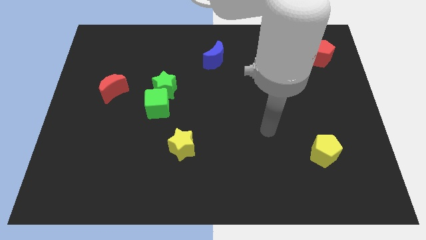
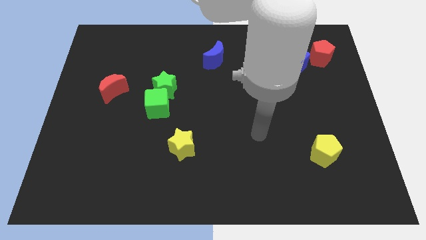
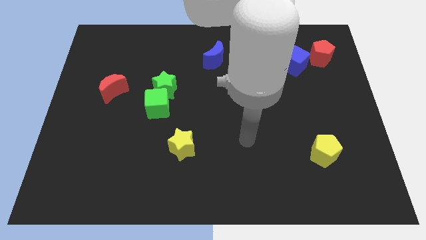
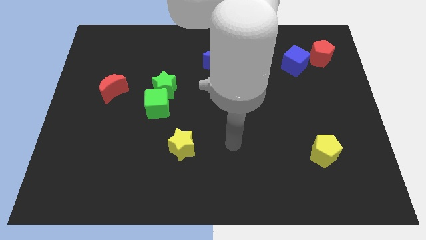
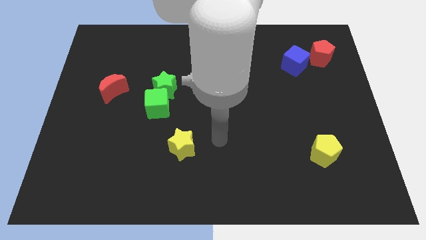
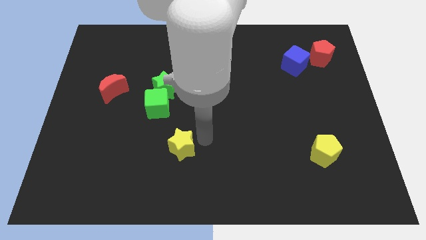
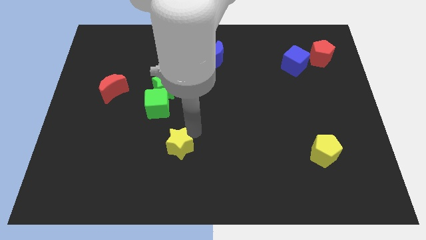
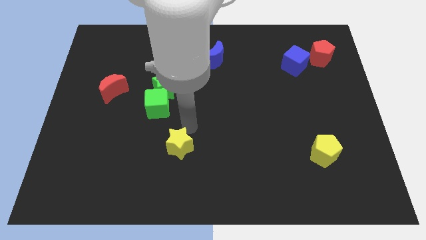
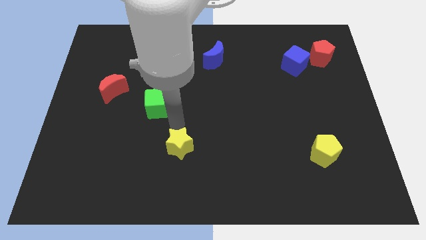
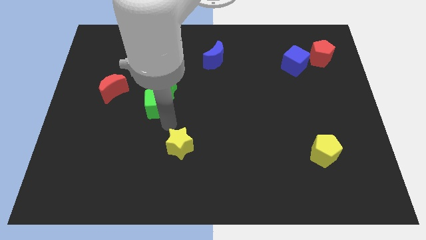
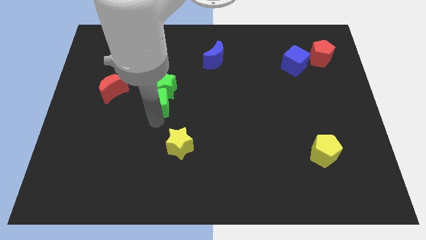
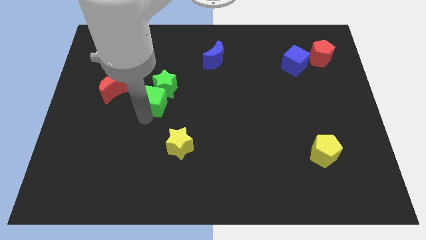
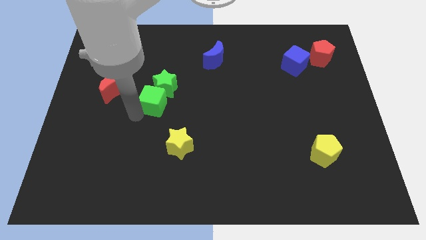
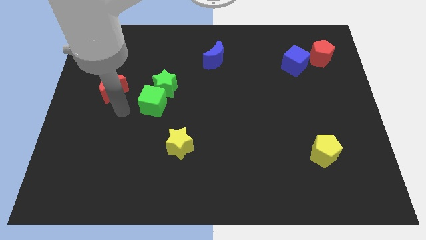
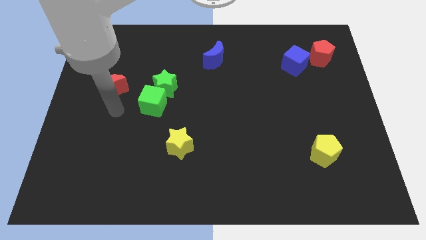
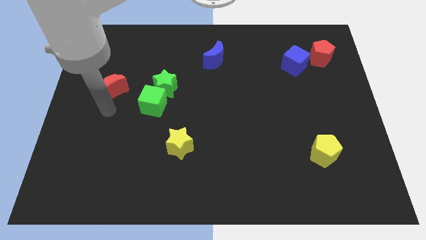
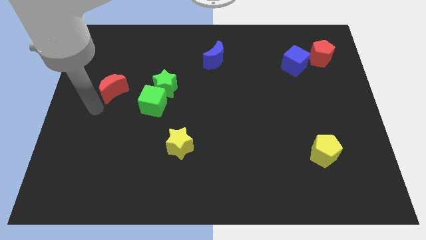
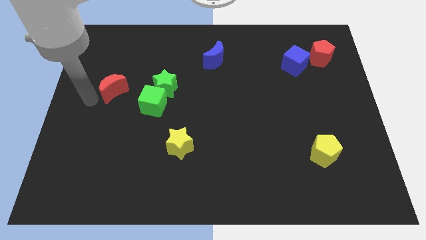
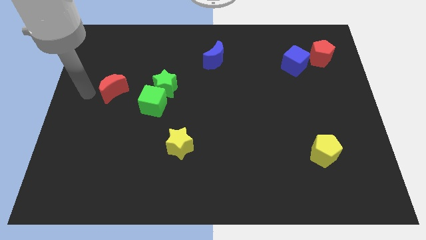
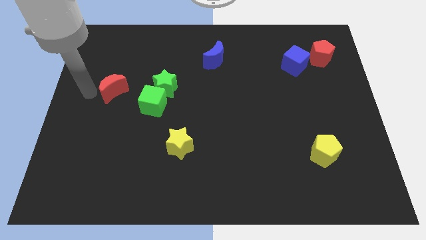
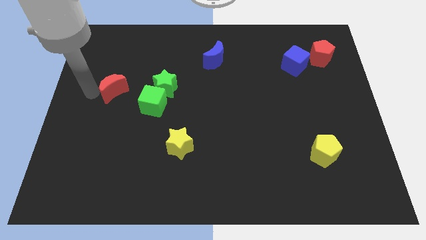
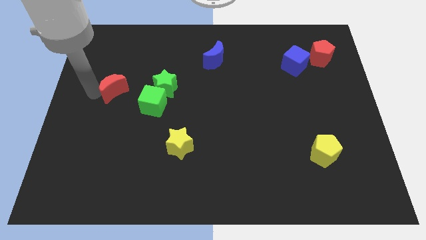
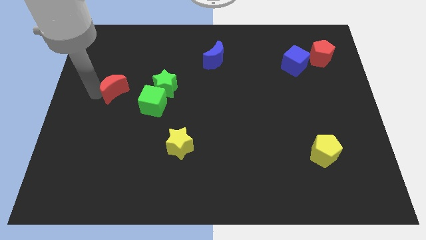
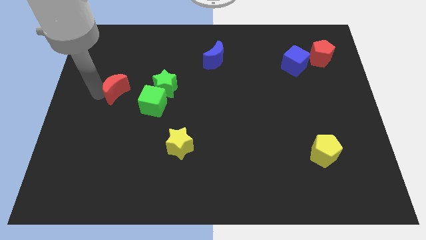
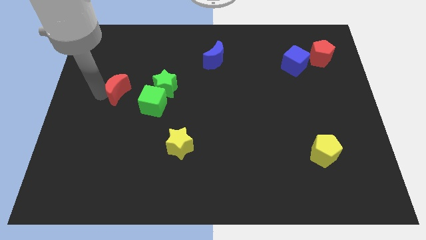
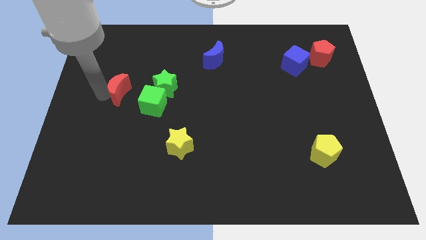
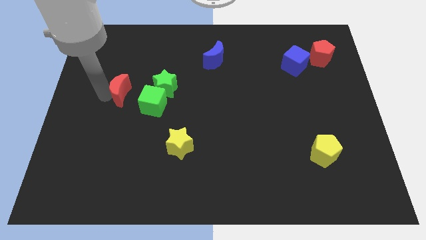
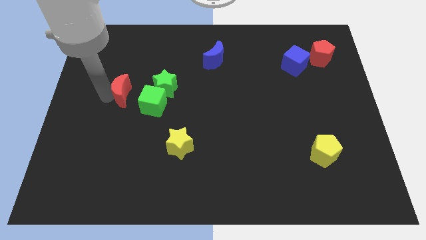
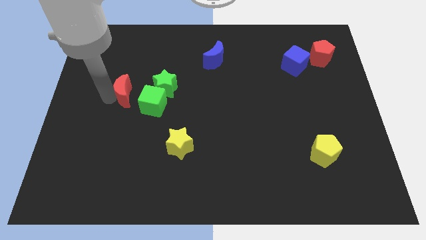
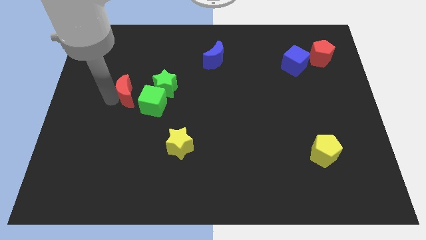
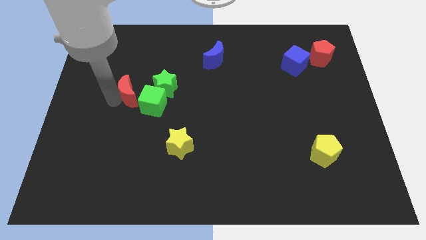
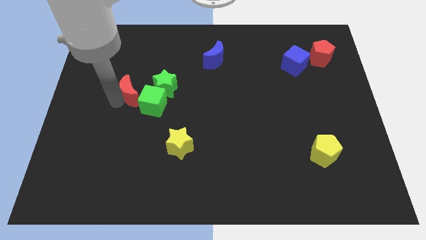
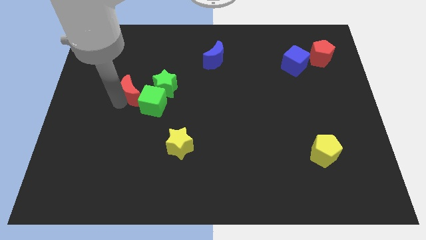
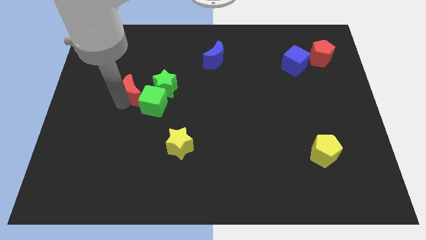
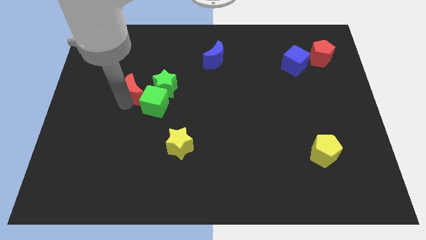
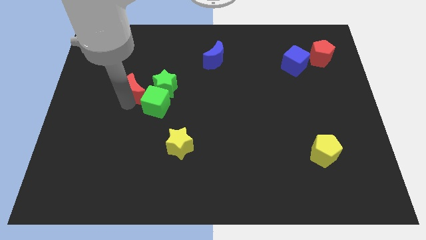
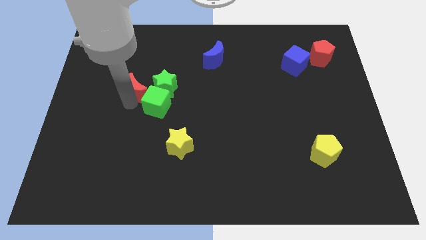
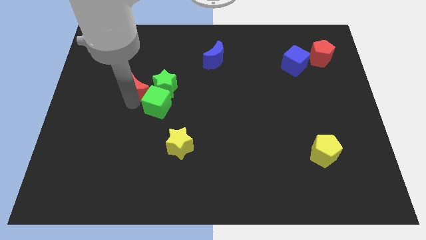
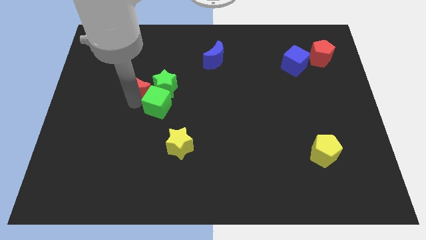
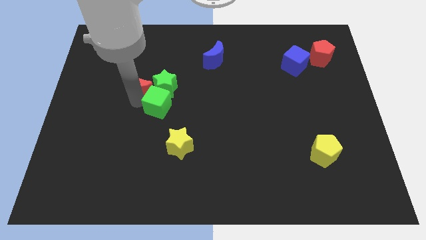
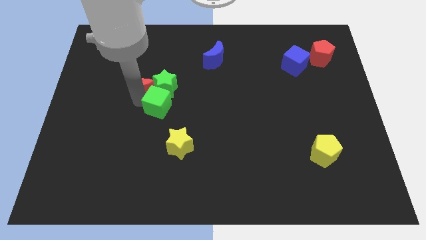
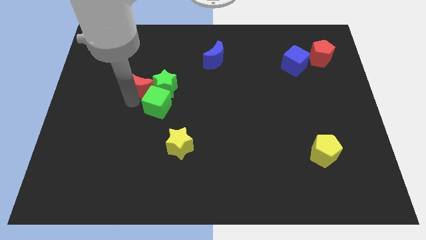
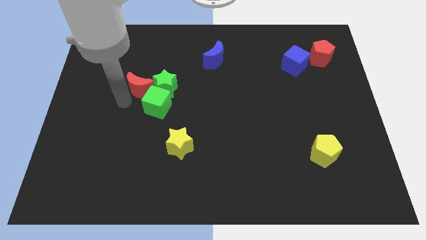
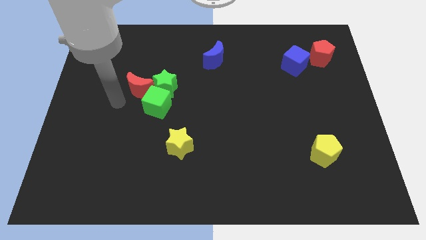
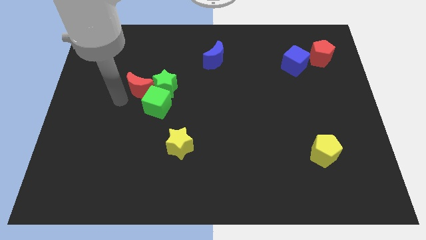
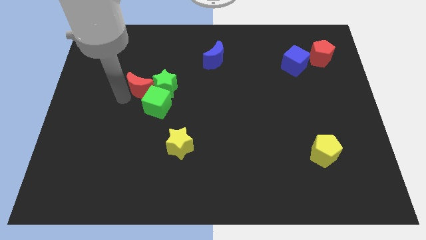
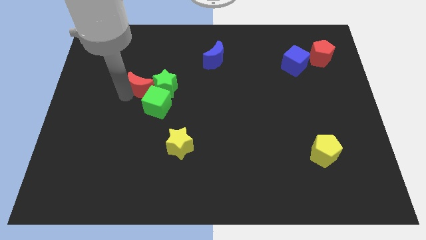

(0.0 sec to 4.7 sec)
push the red moon a little bit to the right

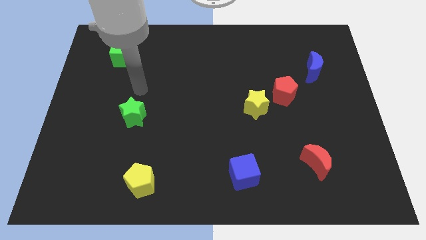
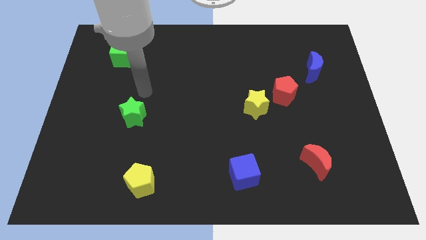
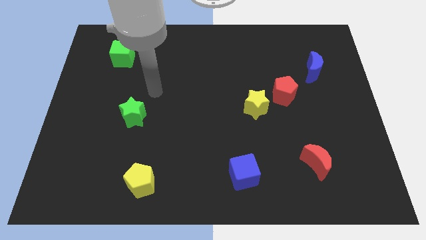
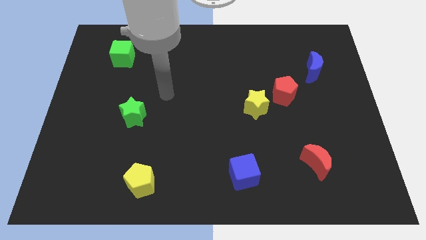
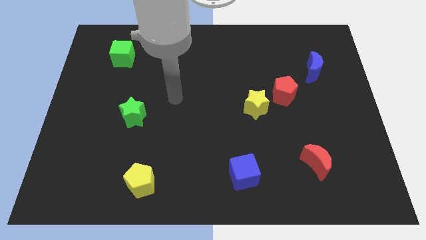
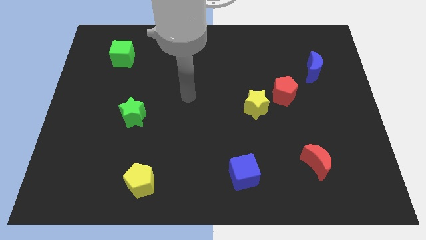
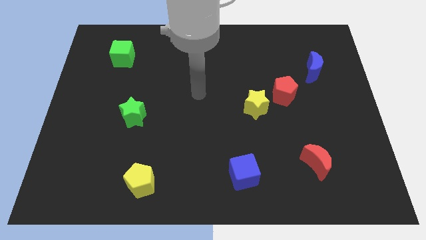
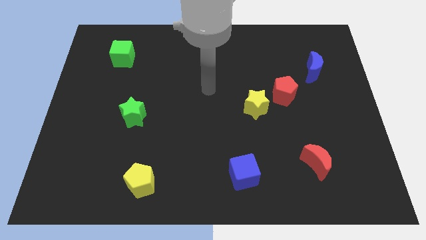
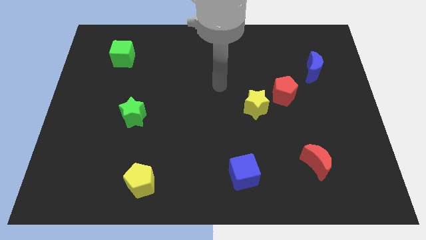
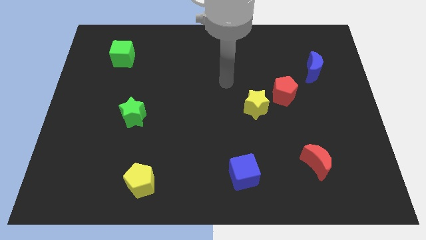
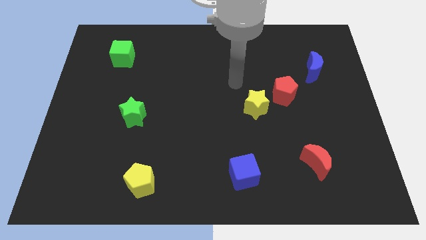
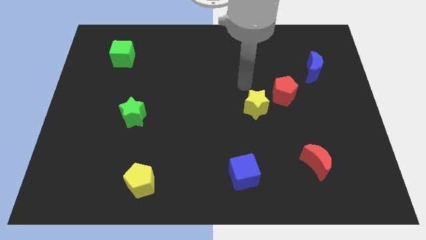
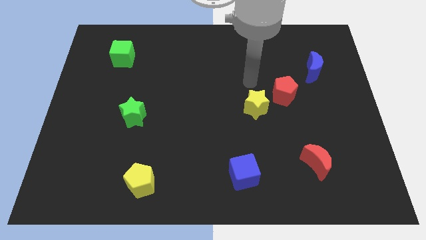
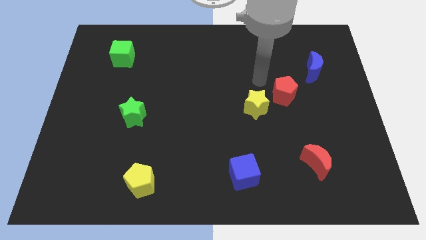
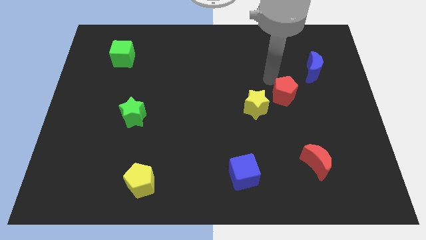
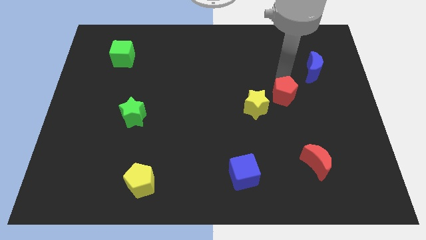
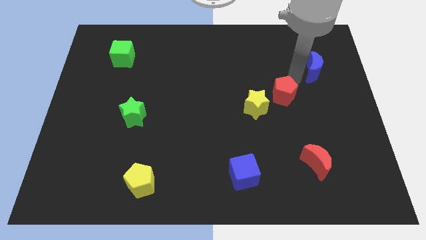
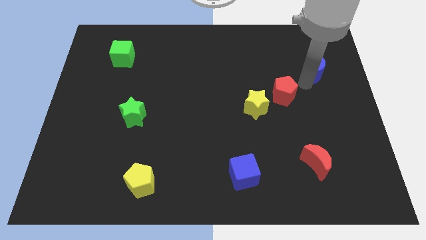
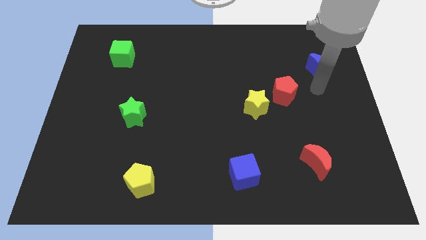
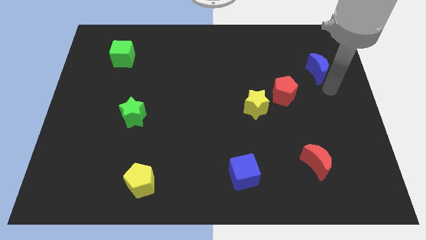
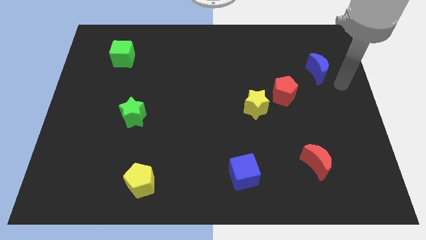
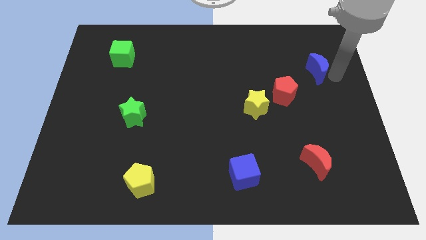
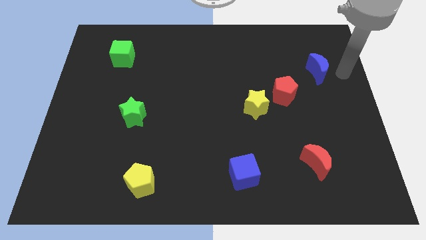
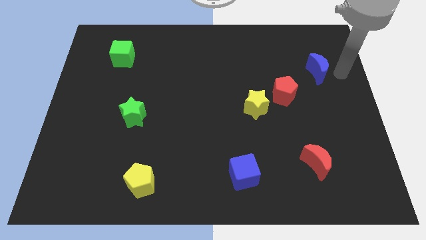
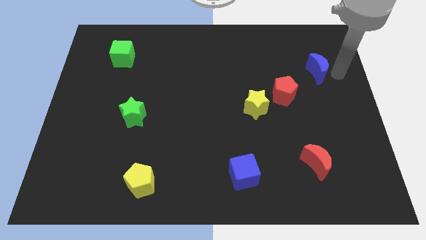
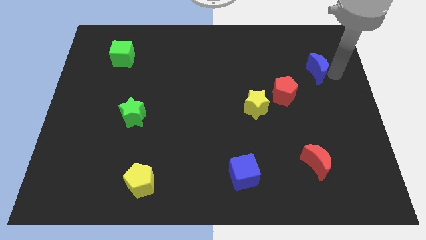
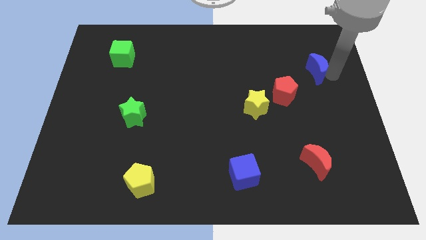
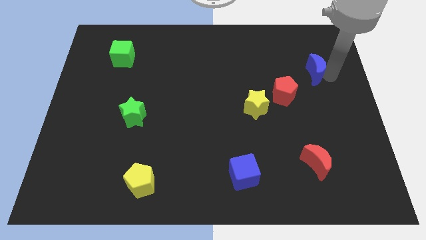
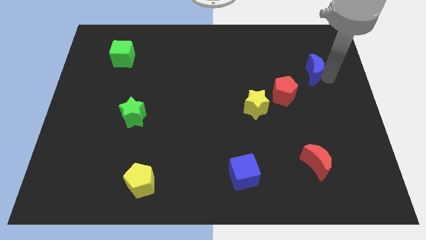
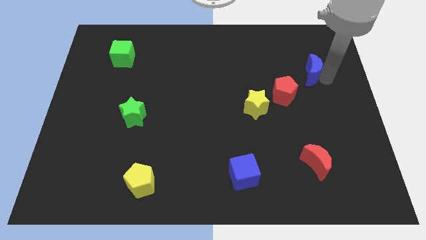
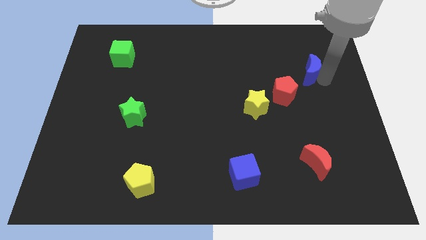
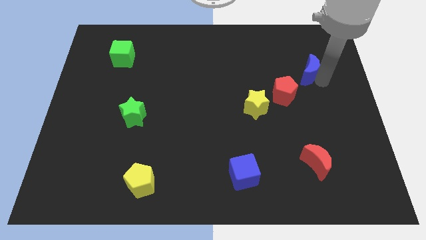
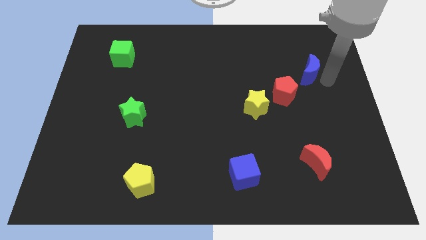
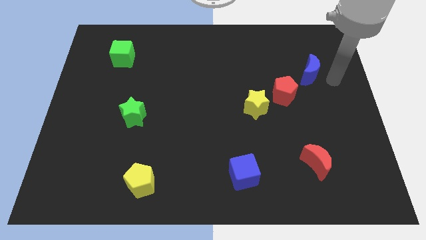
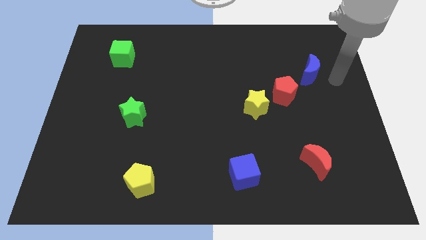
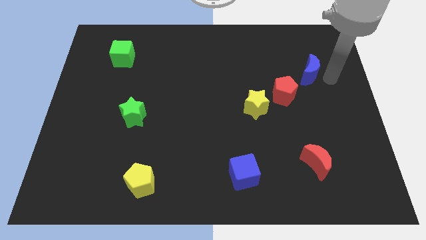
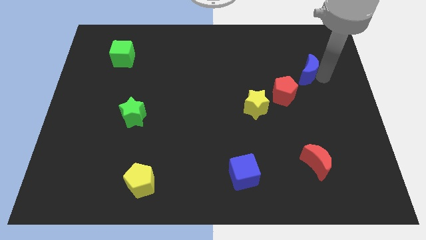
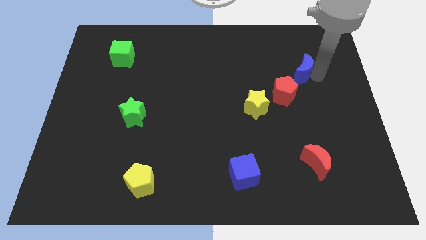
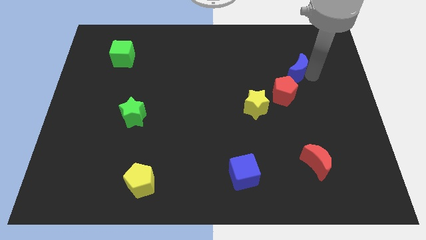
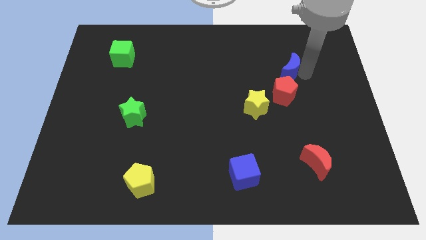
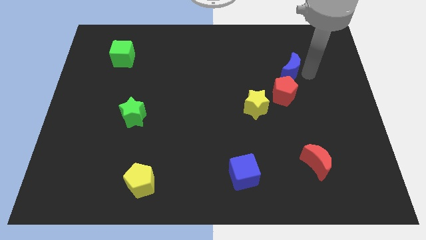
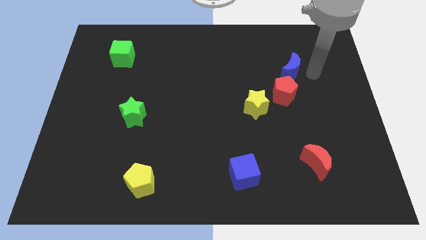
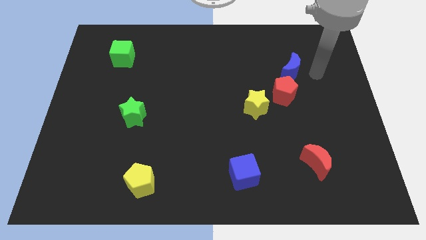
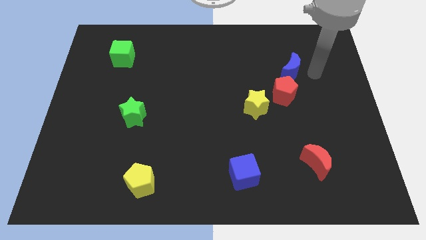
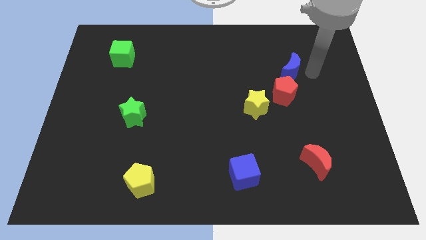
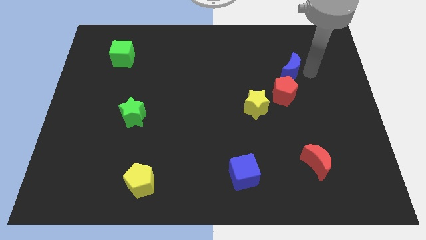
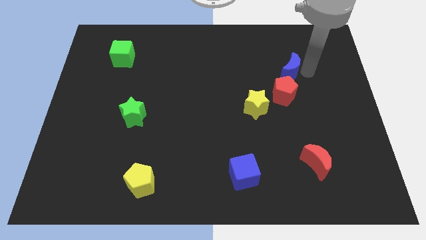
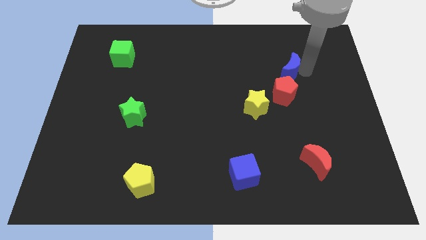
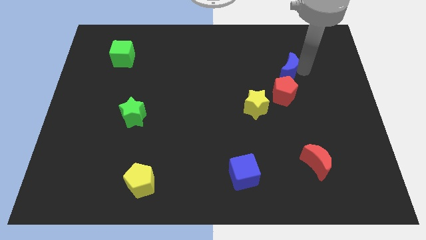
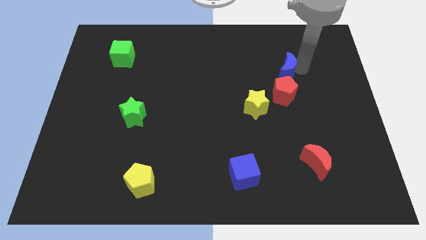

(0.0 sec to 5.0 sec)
slightly push the blue moon left
